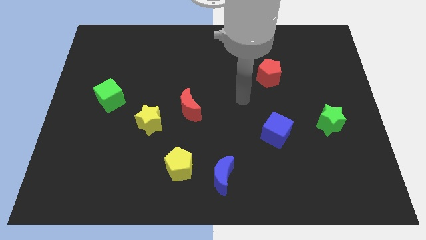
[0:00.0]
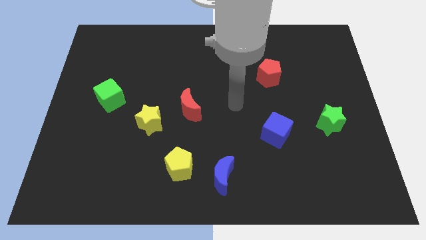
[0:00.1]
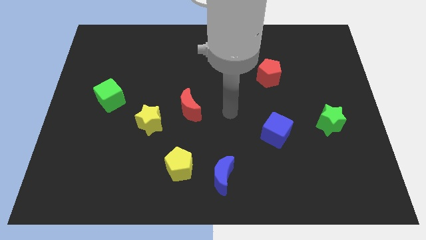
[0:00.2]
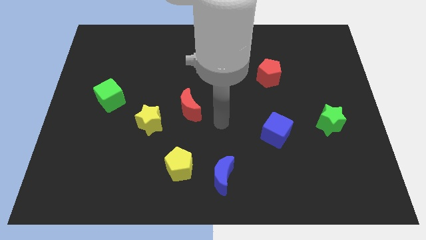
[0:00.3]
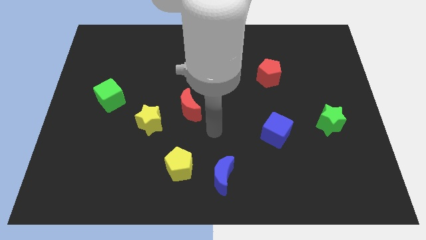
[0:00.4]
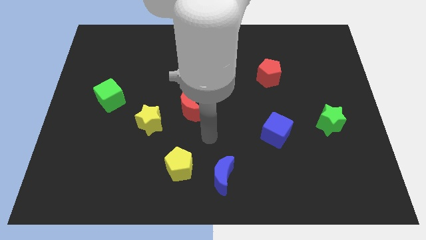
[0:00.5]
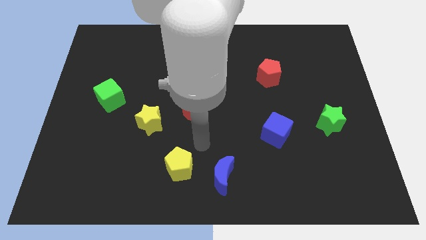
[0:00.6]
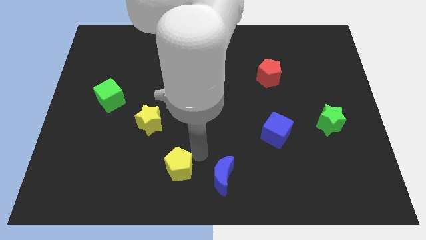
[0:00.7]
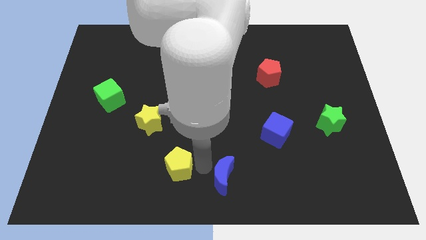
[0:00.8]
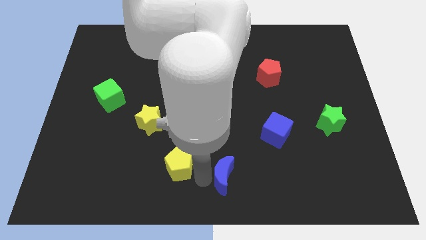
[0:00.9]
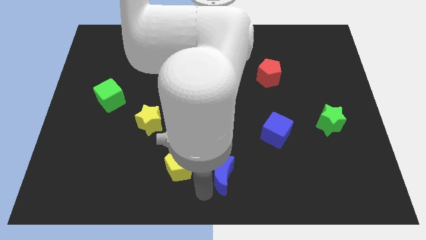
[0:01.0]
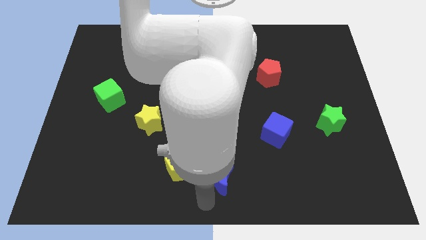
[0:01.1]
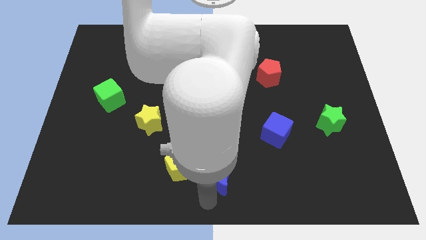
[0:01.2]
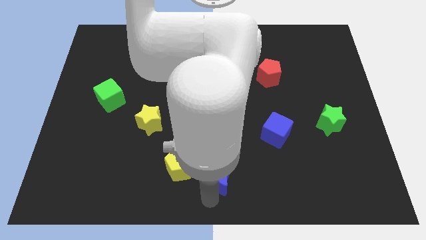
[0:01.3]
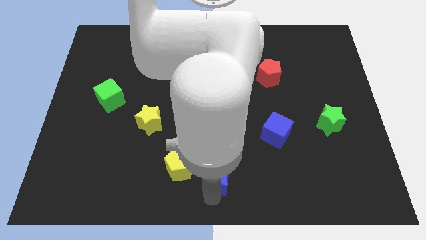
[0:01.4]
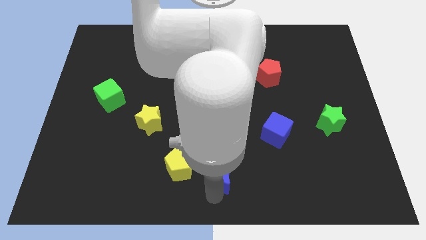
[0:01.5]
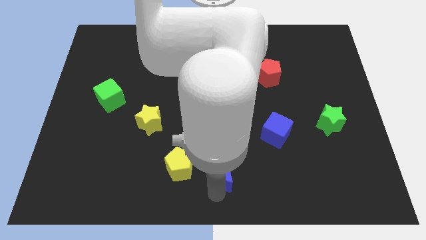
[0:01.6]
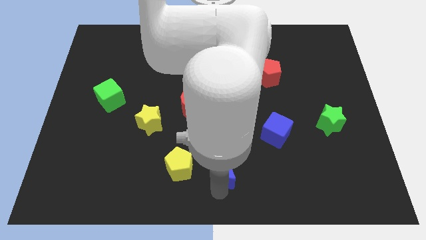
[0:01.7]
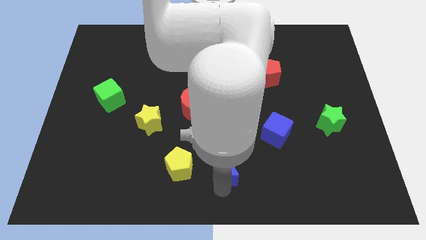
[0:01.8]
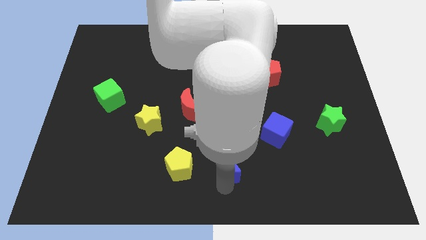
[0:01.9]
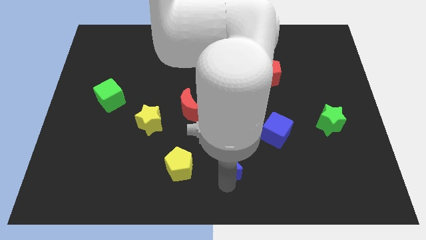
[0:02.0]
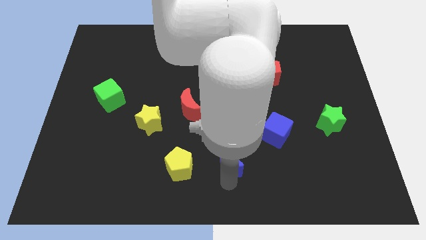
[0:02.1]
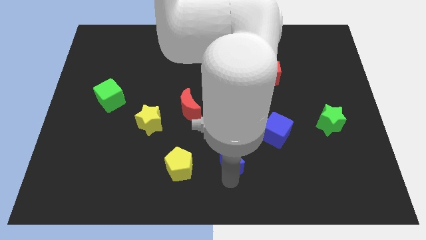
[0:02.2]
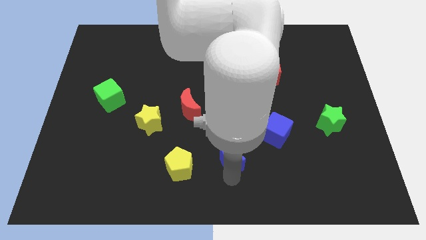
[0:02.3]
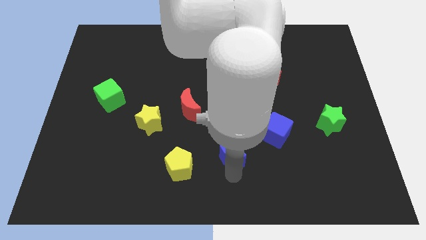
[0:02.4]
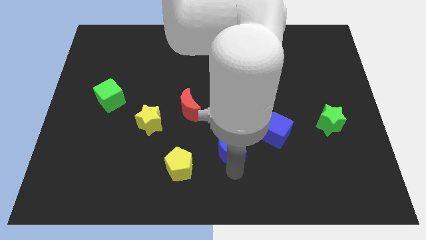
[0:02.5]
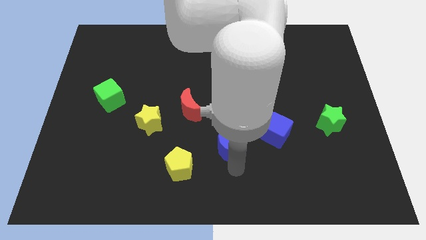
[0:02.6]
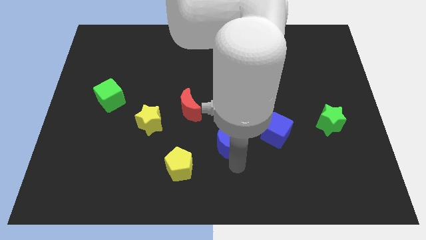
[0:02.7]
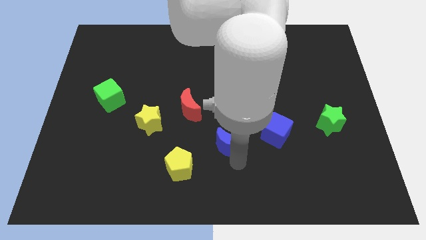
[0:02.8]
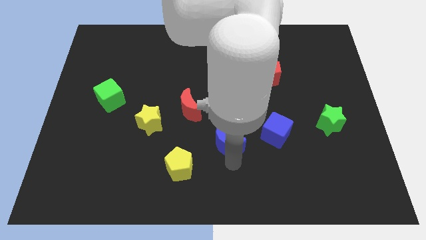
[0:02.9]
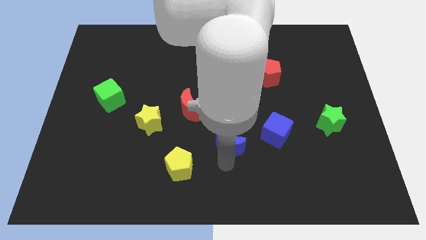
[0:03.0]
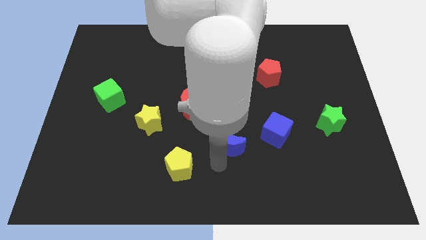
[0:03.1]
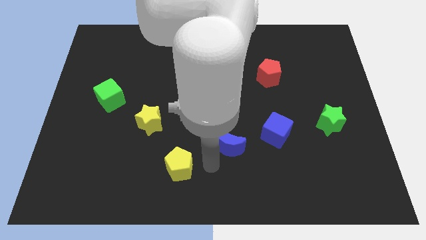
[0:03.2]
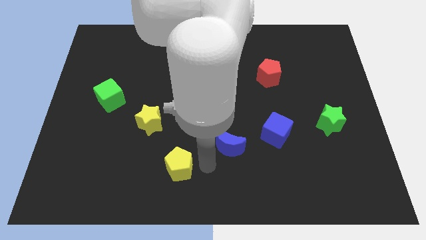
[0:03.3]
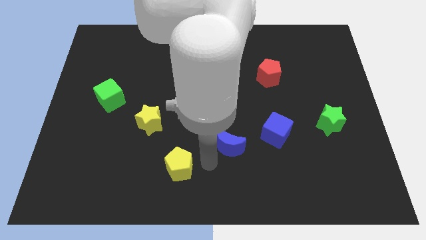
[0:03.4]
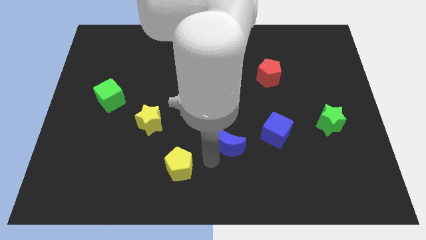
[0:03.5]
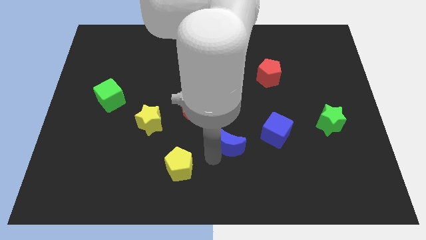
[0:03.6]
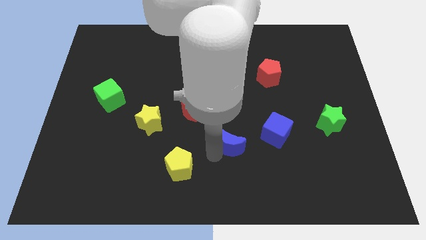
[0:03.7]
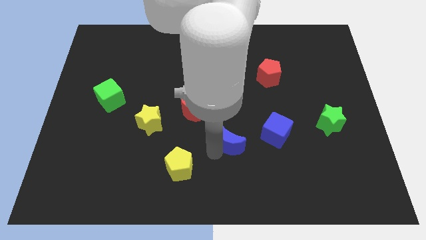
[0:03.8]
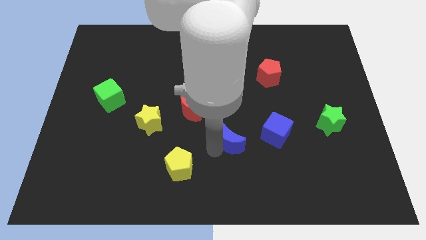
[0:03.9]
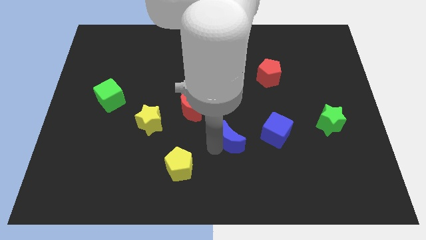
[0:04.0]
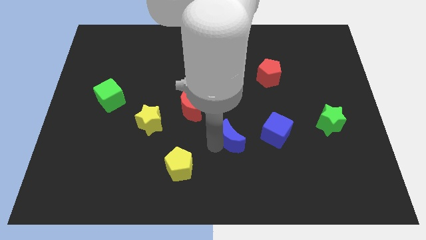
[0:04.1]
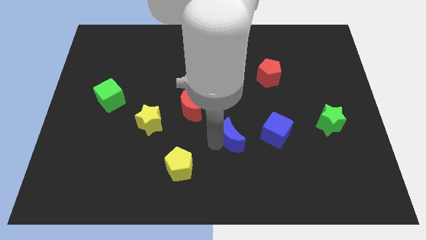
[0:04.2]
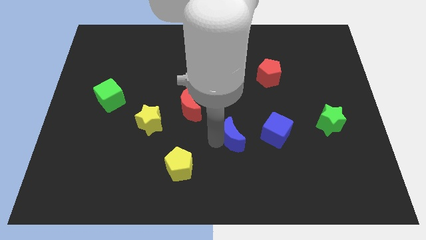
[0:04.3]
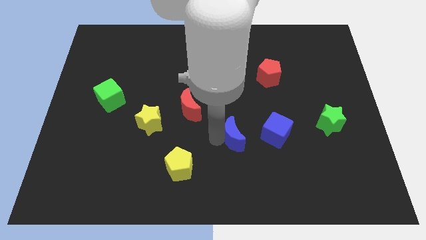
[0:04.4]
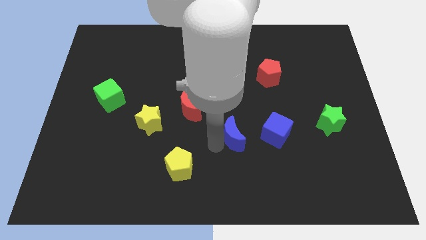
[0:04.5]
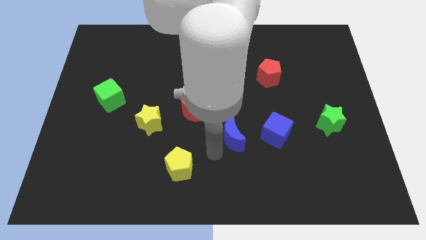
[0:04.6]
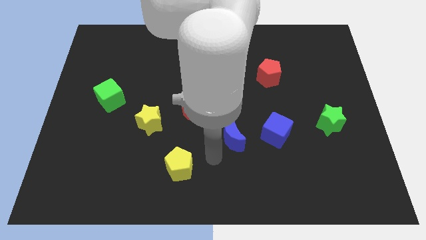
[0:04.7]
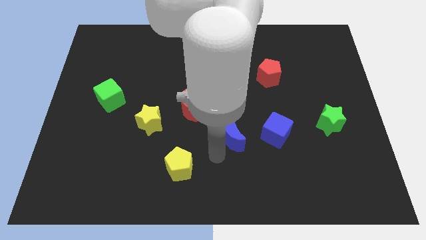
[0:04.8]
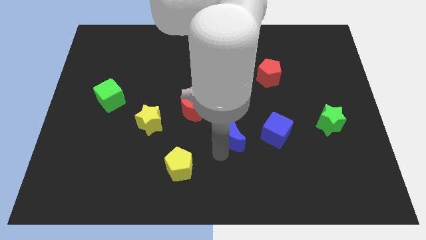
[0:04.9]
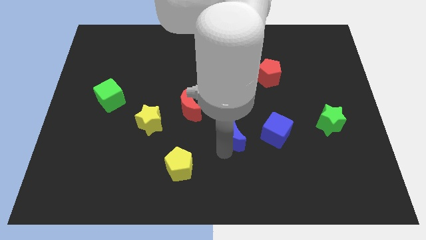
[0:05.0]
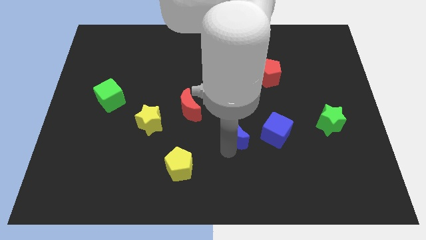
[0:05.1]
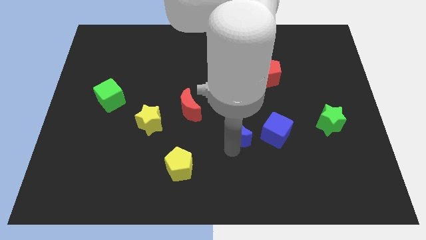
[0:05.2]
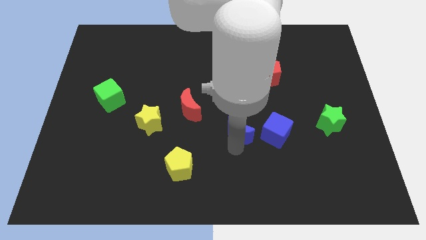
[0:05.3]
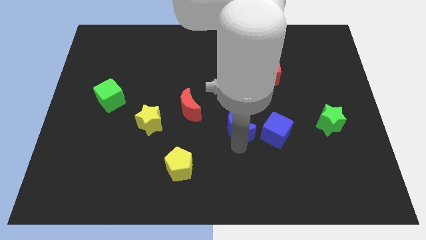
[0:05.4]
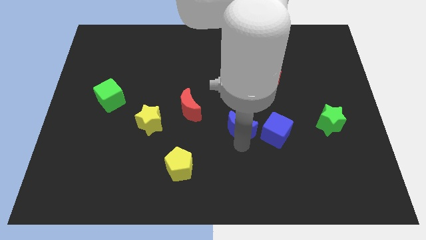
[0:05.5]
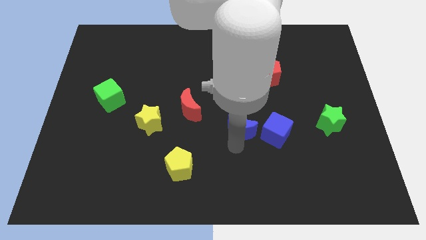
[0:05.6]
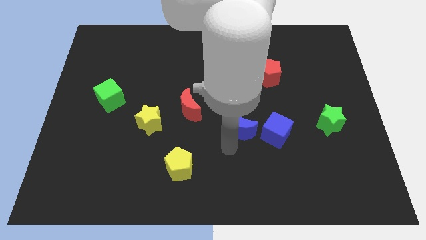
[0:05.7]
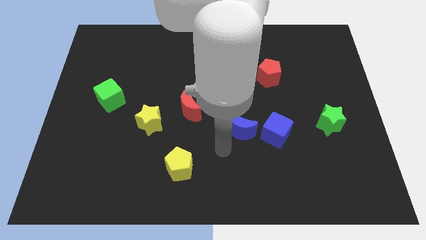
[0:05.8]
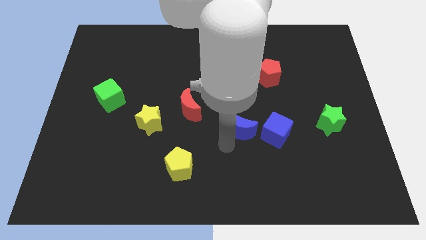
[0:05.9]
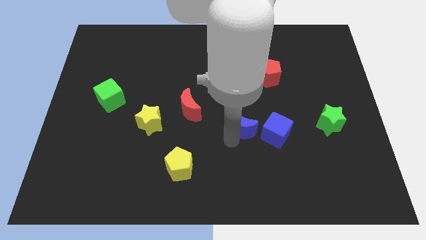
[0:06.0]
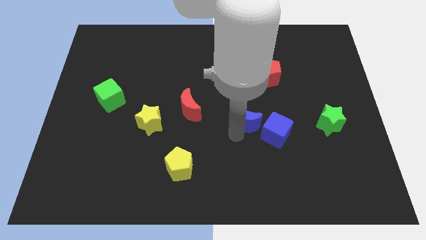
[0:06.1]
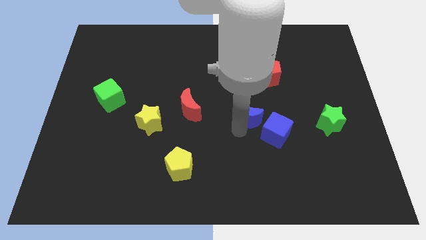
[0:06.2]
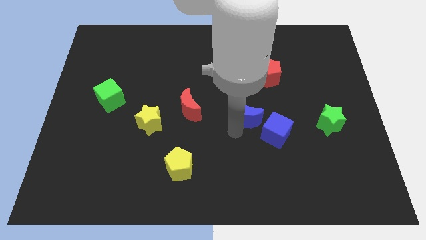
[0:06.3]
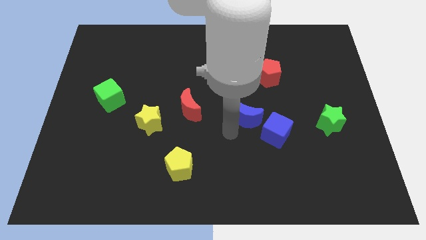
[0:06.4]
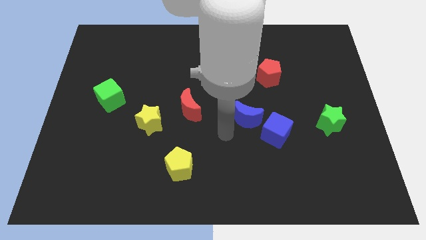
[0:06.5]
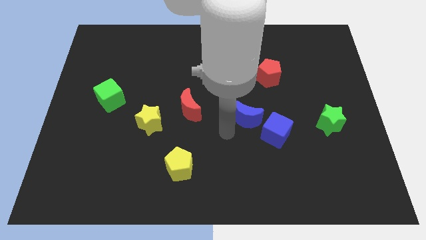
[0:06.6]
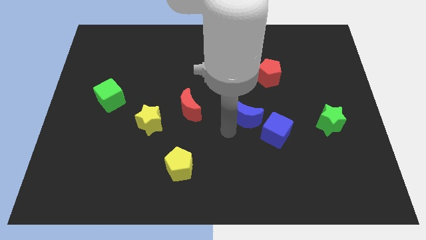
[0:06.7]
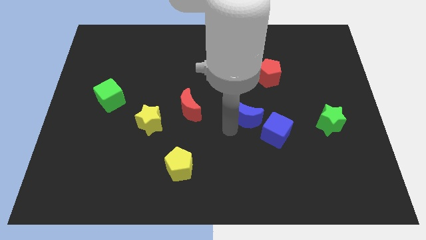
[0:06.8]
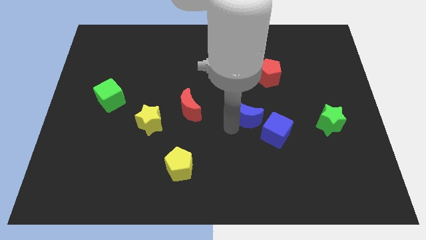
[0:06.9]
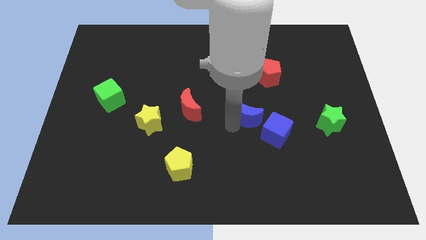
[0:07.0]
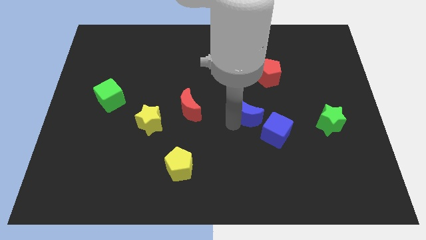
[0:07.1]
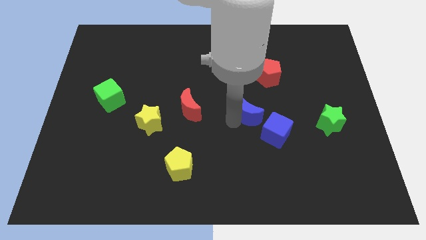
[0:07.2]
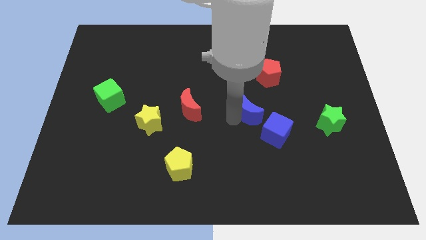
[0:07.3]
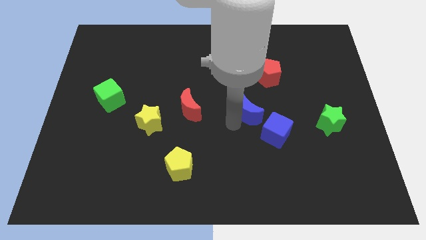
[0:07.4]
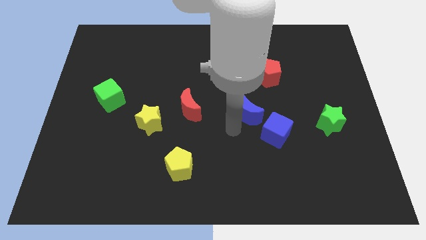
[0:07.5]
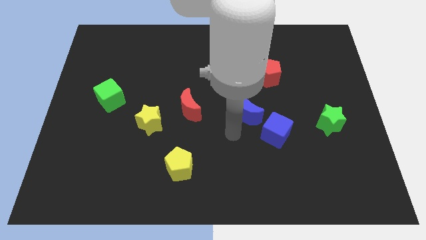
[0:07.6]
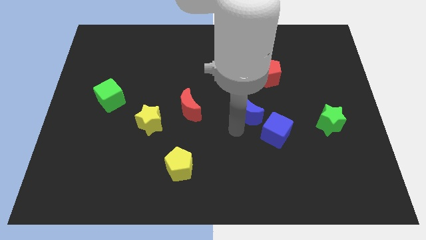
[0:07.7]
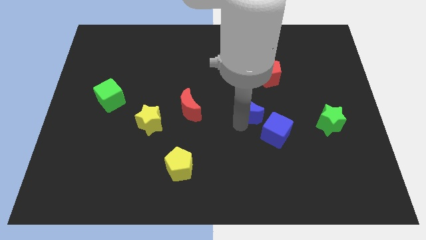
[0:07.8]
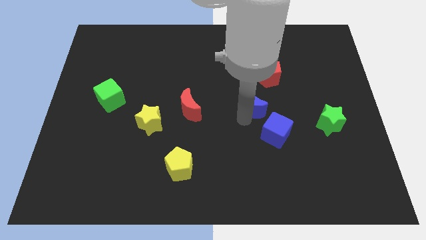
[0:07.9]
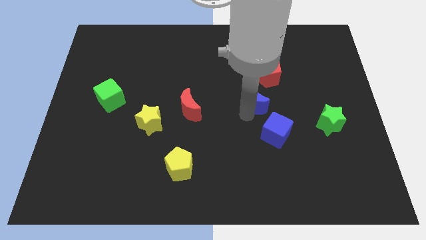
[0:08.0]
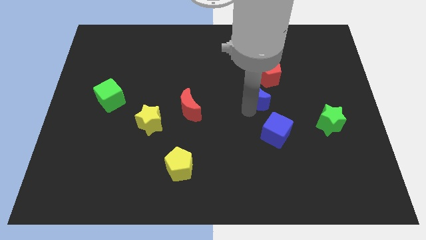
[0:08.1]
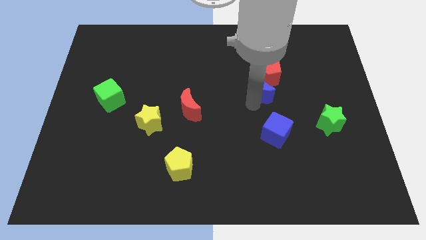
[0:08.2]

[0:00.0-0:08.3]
push the blue moon to the red pentagon
